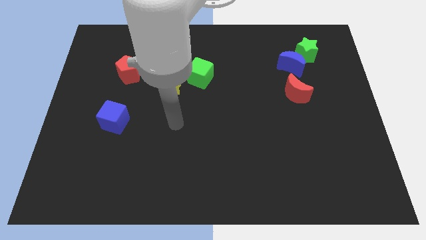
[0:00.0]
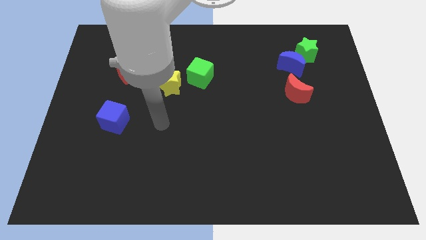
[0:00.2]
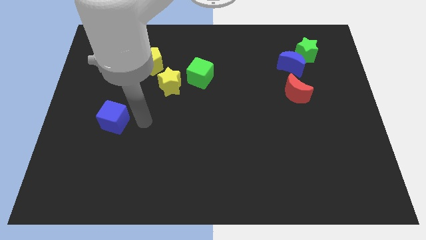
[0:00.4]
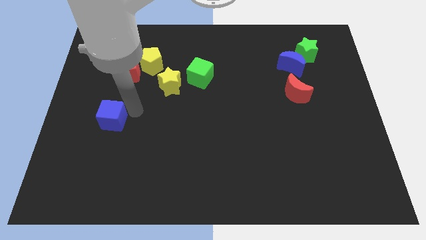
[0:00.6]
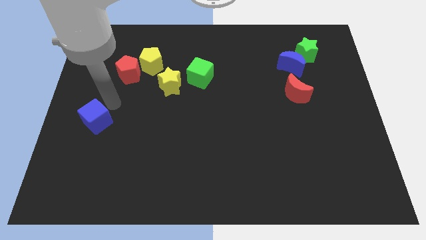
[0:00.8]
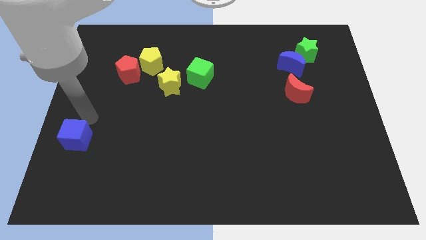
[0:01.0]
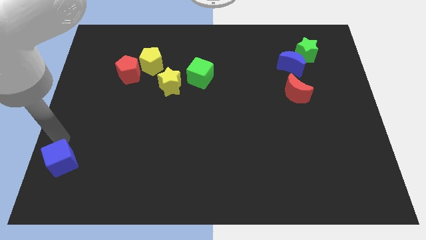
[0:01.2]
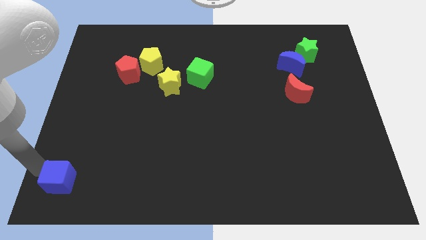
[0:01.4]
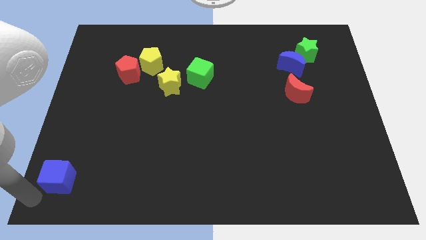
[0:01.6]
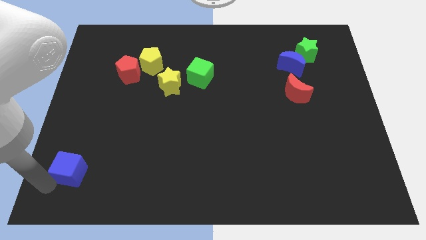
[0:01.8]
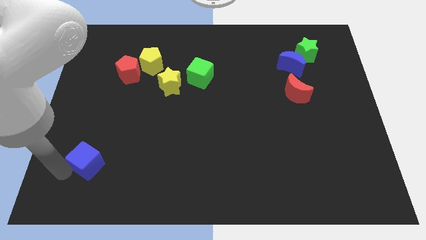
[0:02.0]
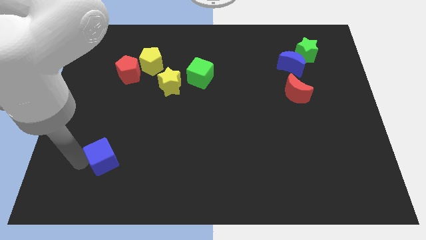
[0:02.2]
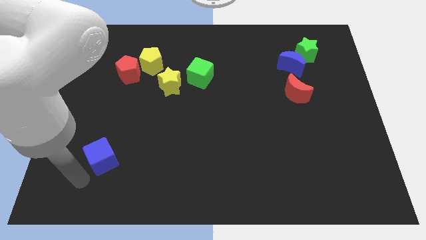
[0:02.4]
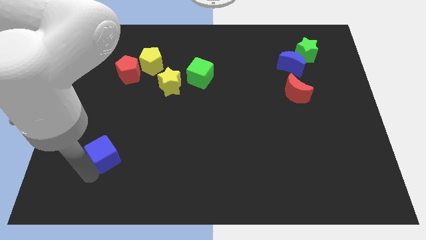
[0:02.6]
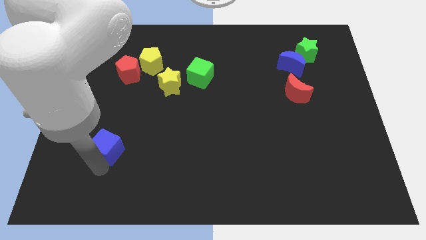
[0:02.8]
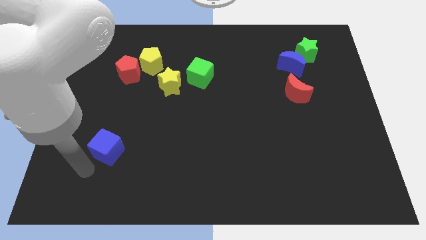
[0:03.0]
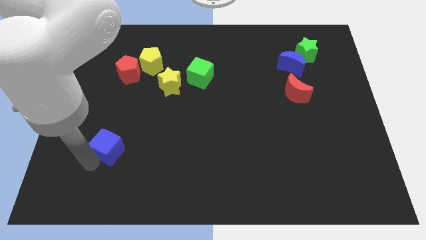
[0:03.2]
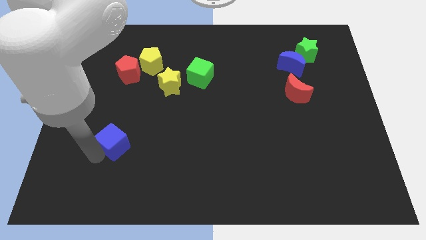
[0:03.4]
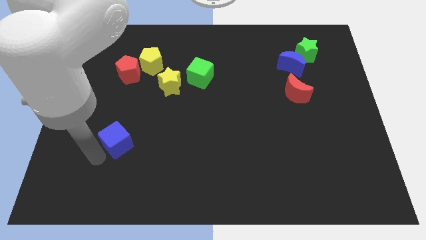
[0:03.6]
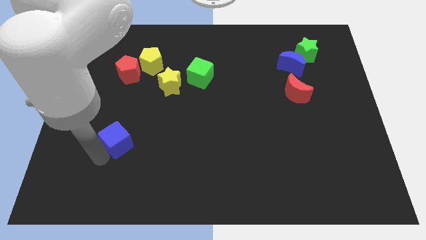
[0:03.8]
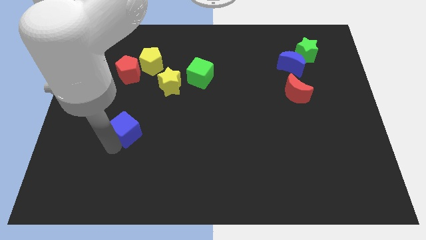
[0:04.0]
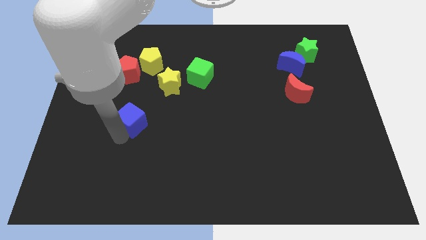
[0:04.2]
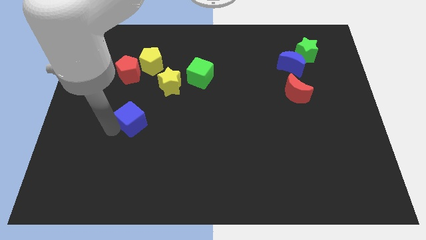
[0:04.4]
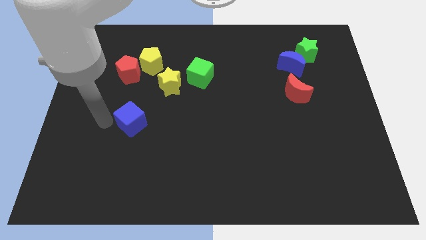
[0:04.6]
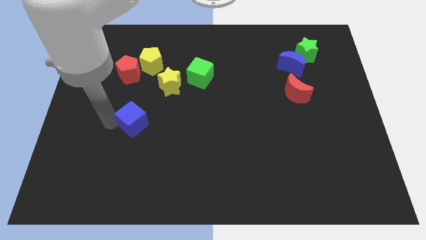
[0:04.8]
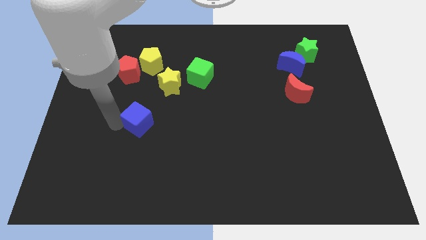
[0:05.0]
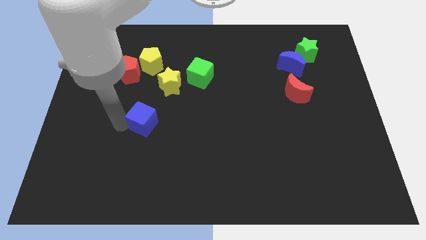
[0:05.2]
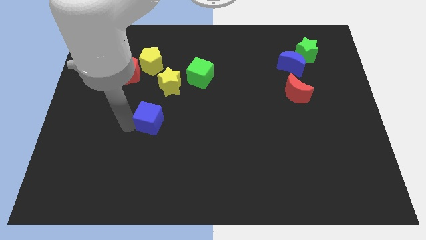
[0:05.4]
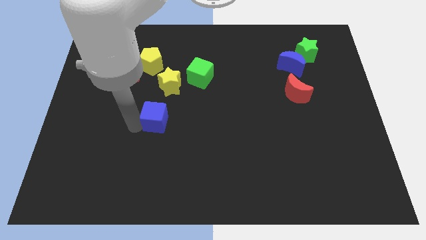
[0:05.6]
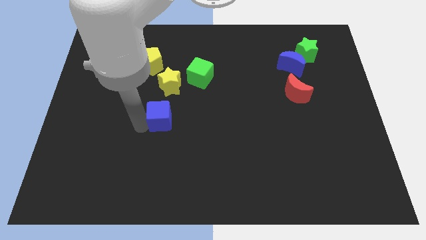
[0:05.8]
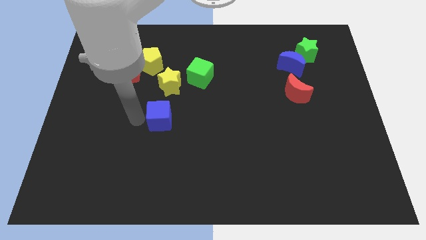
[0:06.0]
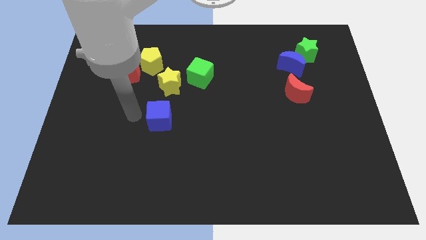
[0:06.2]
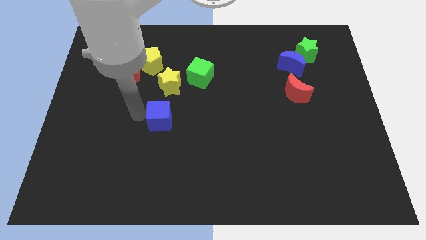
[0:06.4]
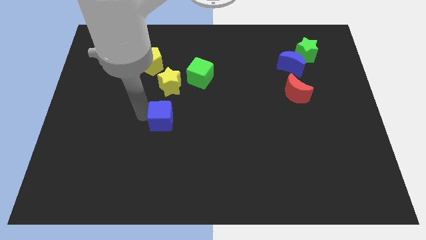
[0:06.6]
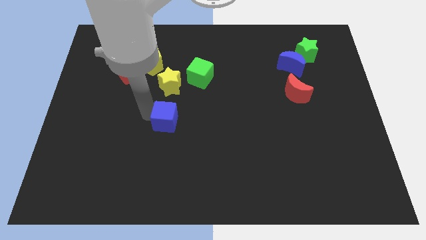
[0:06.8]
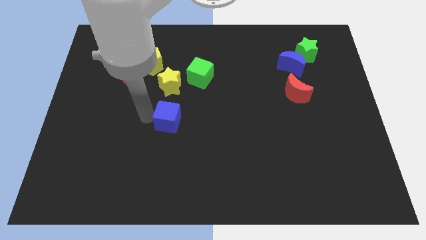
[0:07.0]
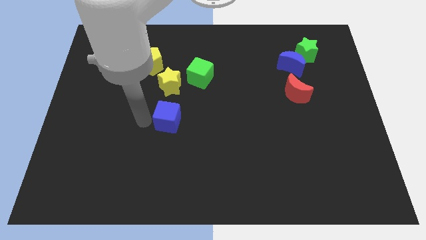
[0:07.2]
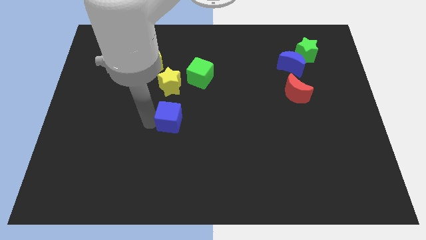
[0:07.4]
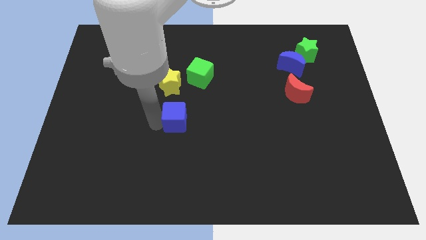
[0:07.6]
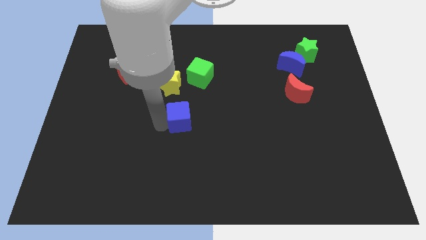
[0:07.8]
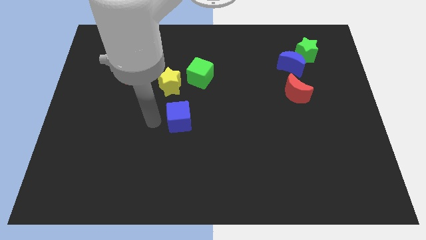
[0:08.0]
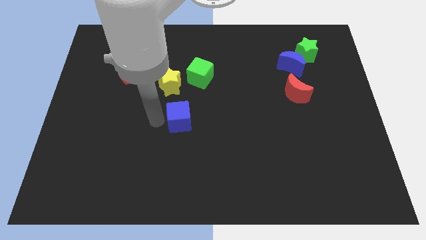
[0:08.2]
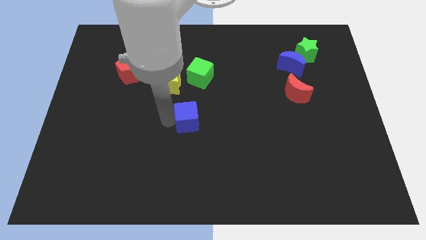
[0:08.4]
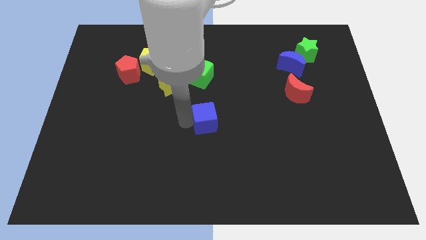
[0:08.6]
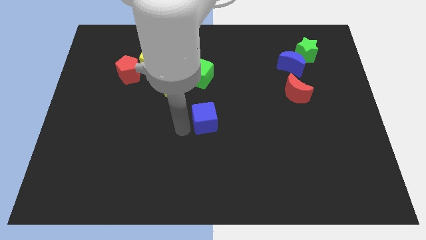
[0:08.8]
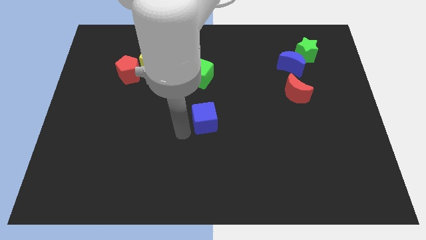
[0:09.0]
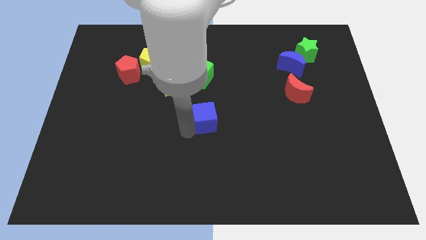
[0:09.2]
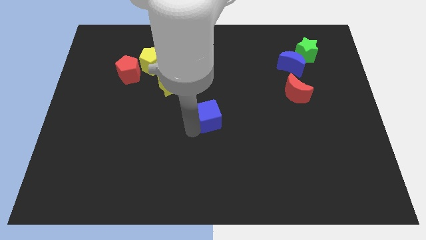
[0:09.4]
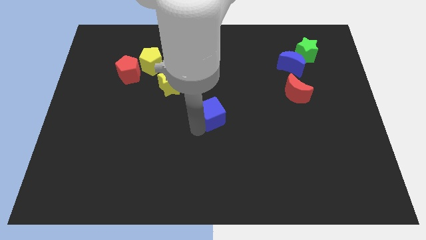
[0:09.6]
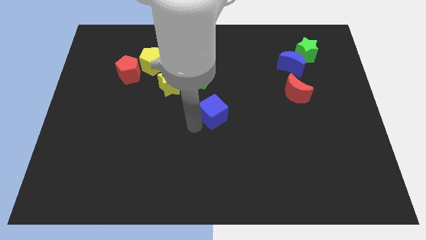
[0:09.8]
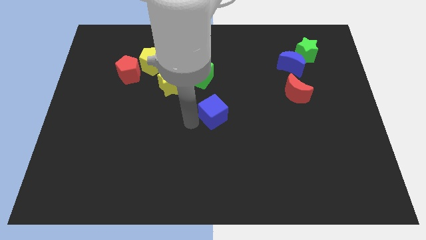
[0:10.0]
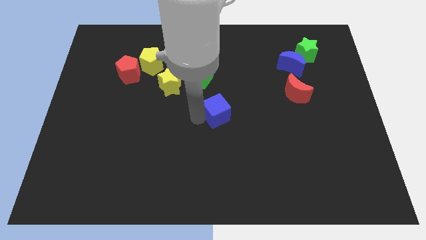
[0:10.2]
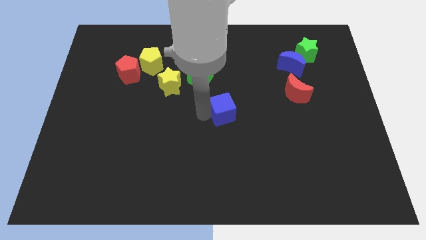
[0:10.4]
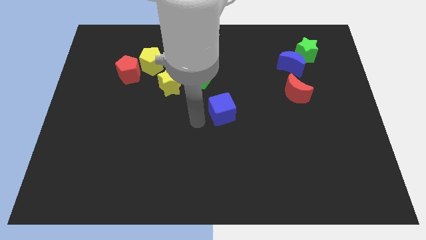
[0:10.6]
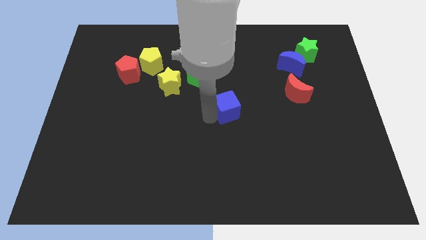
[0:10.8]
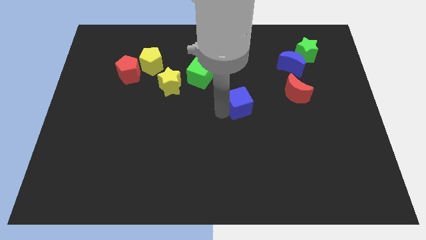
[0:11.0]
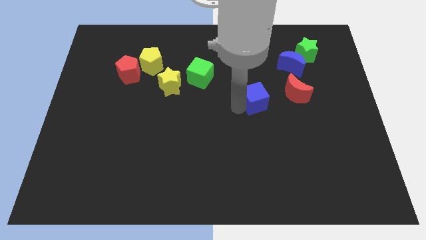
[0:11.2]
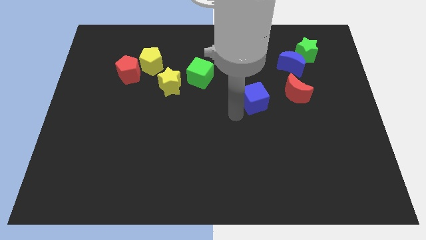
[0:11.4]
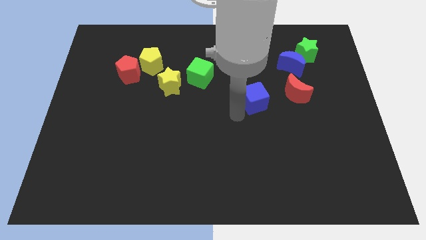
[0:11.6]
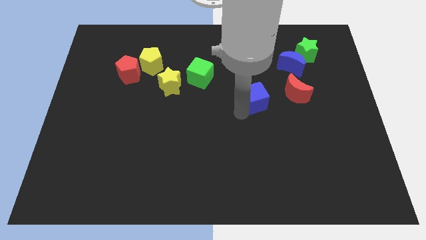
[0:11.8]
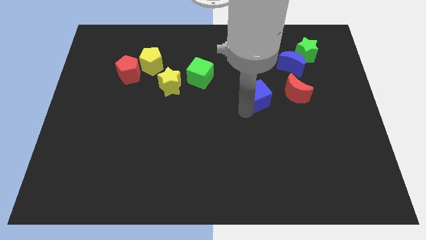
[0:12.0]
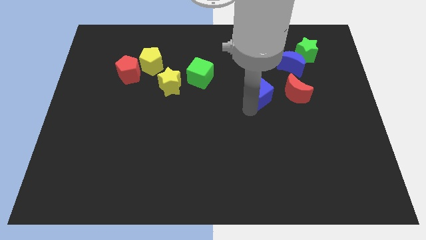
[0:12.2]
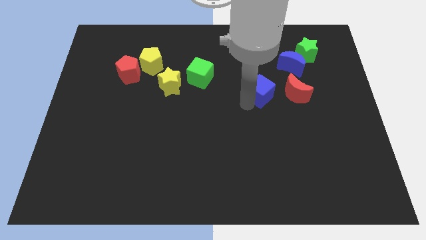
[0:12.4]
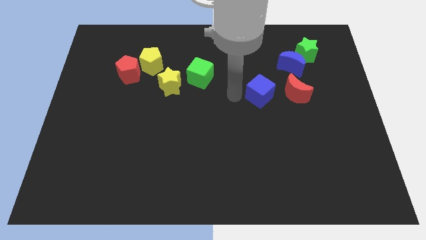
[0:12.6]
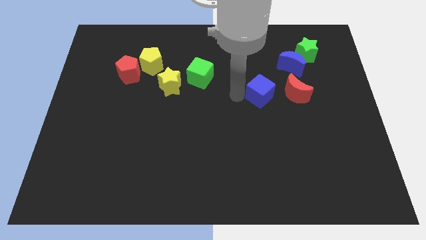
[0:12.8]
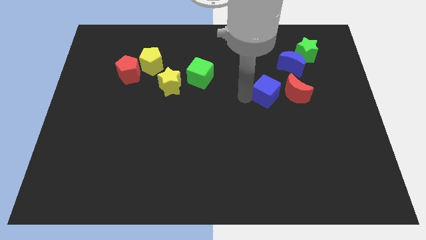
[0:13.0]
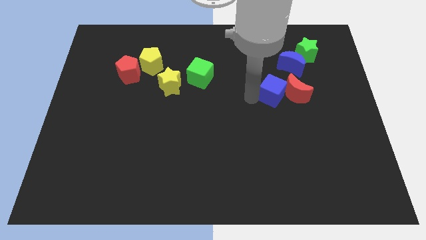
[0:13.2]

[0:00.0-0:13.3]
push the blue cube towards the red moon

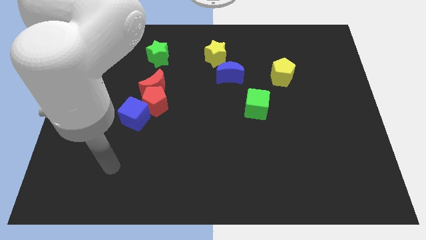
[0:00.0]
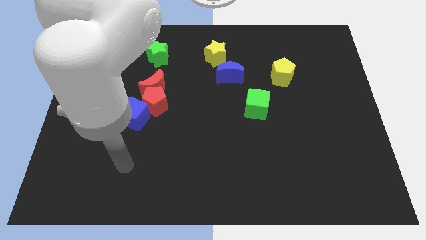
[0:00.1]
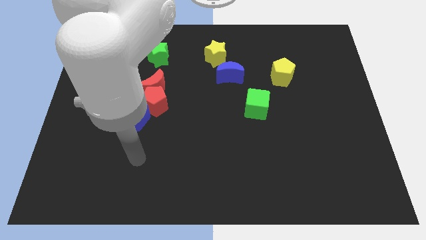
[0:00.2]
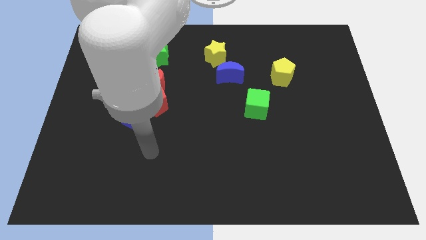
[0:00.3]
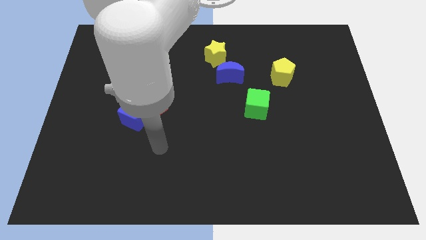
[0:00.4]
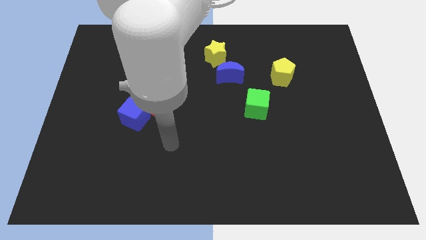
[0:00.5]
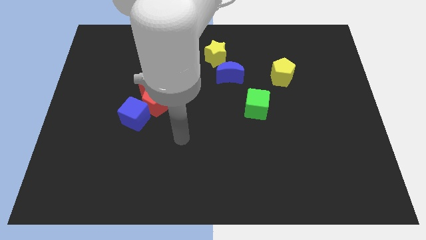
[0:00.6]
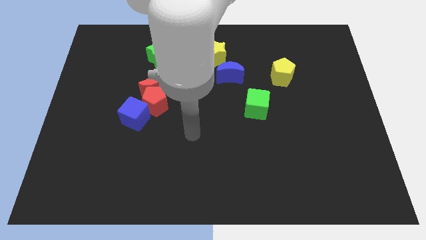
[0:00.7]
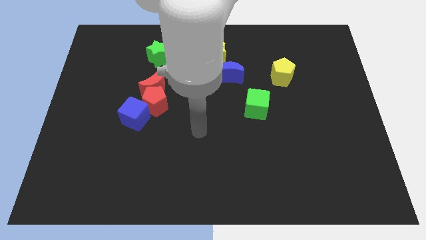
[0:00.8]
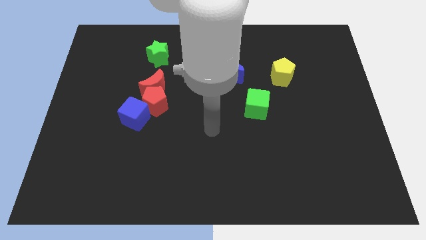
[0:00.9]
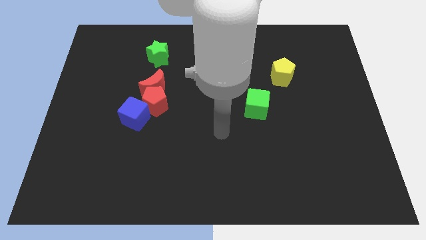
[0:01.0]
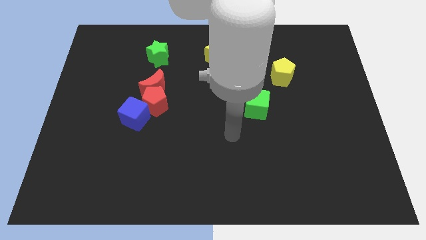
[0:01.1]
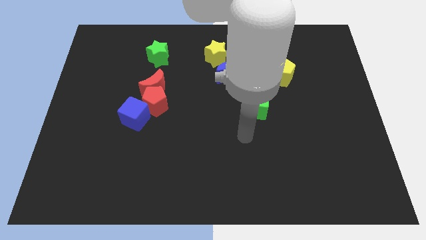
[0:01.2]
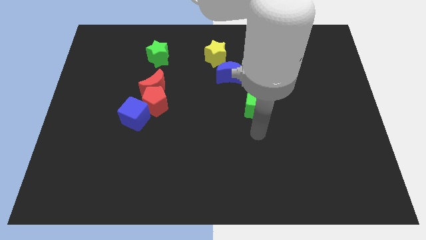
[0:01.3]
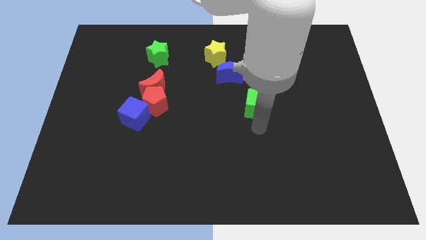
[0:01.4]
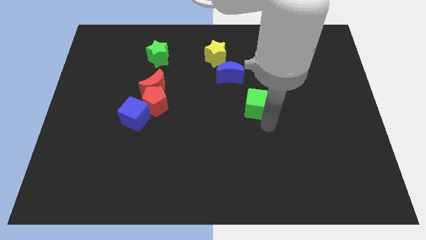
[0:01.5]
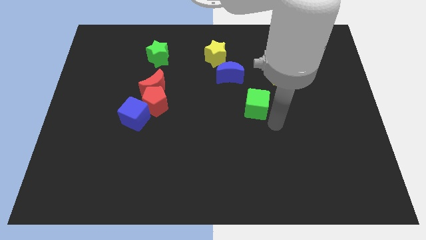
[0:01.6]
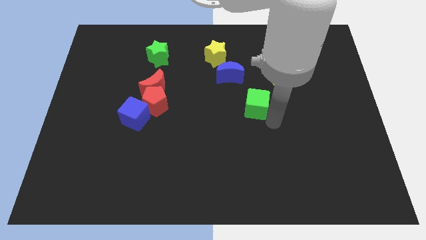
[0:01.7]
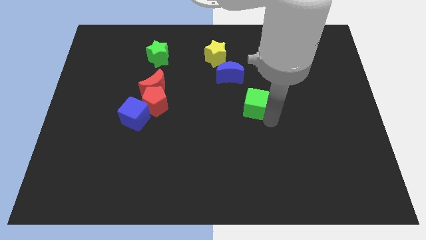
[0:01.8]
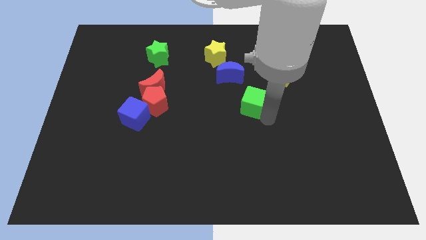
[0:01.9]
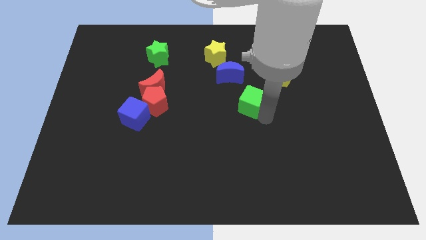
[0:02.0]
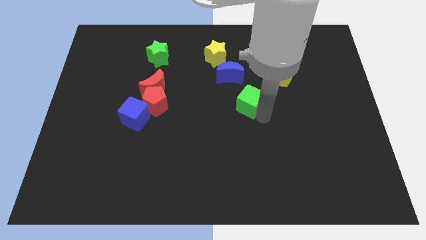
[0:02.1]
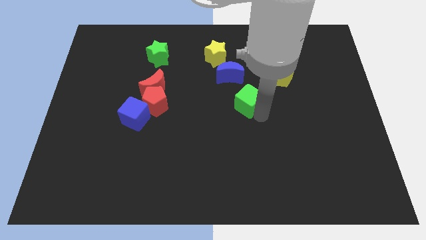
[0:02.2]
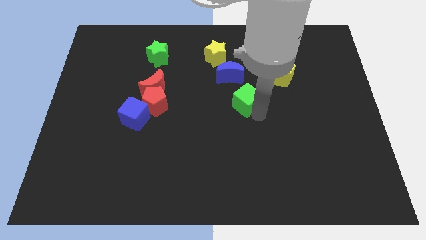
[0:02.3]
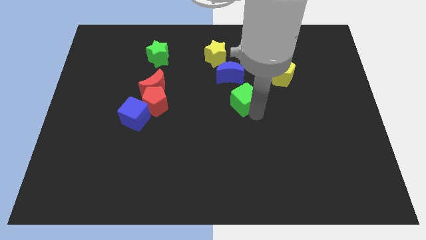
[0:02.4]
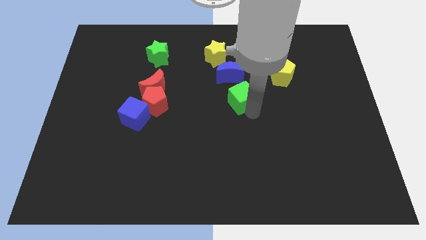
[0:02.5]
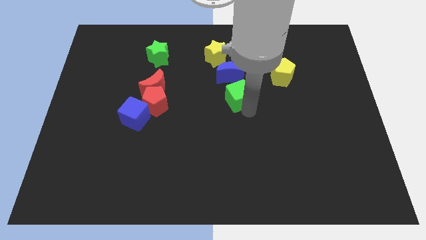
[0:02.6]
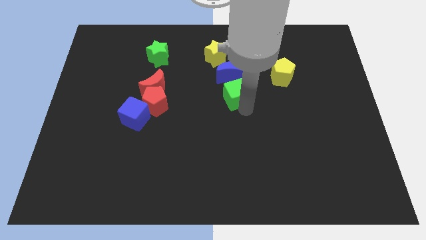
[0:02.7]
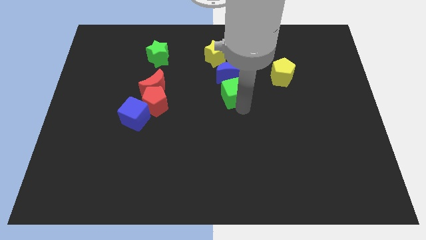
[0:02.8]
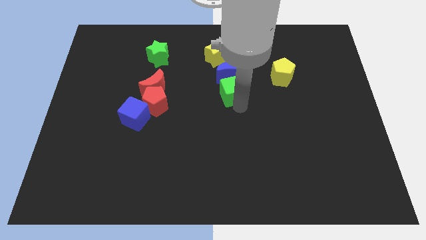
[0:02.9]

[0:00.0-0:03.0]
put the green cube next to the blue moon
